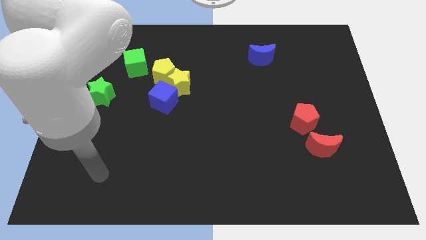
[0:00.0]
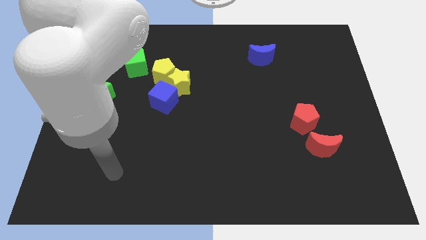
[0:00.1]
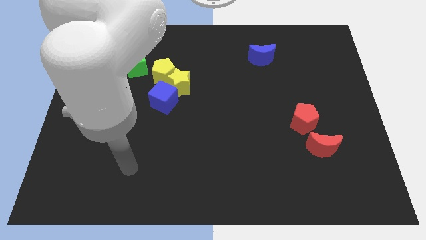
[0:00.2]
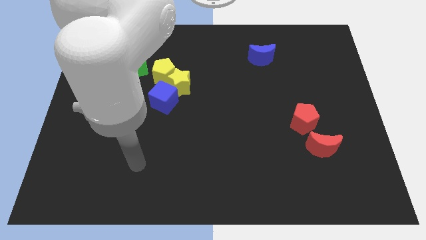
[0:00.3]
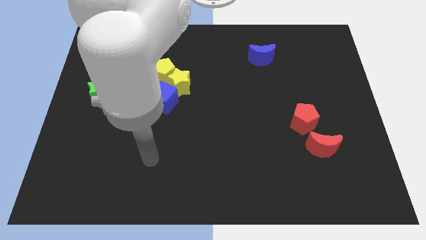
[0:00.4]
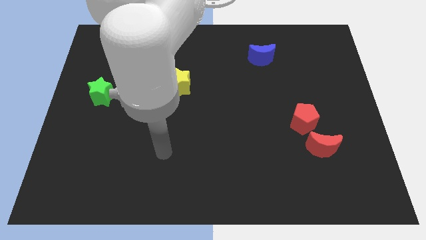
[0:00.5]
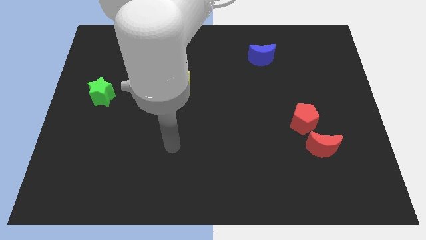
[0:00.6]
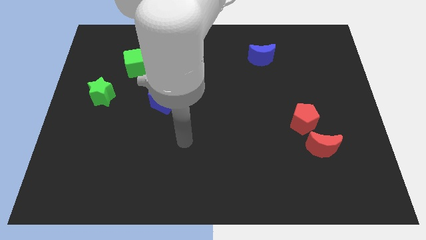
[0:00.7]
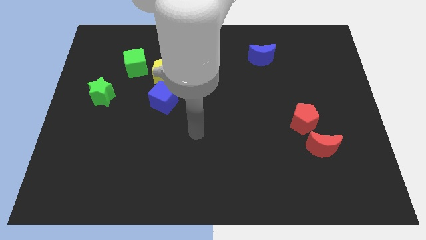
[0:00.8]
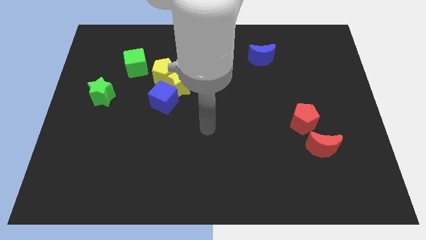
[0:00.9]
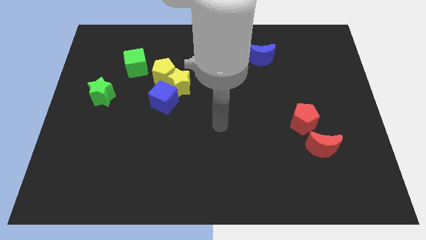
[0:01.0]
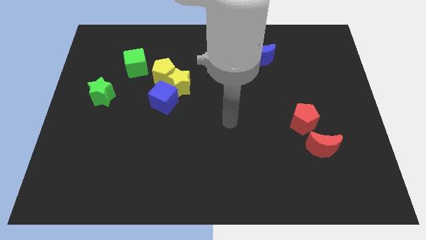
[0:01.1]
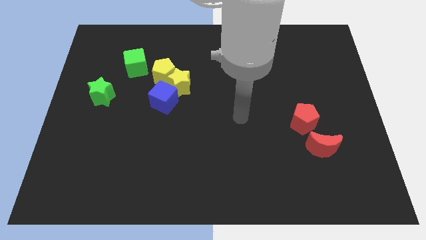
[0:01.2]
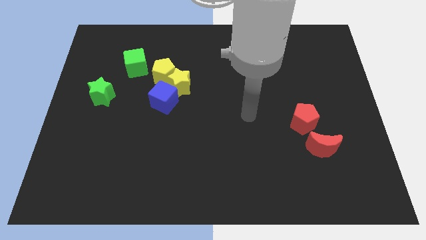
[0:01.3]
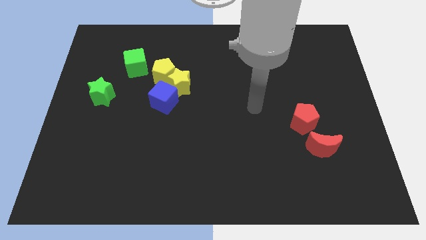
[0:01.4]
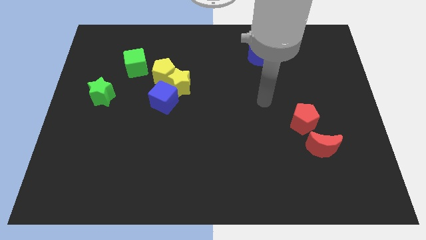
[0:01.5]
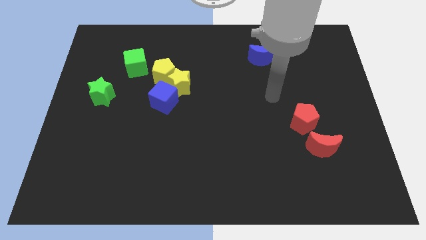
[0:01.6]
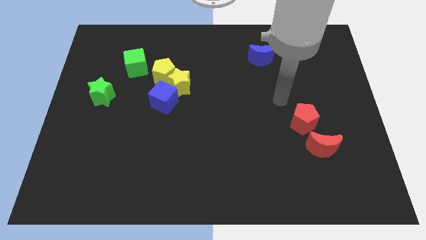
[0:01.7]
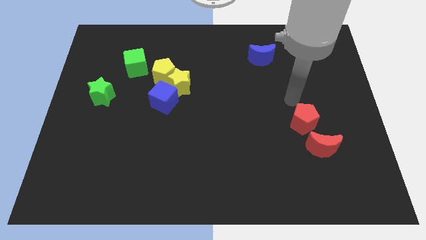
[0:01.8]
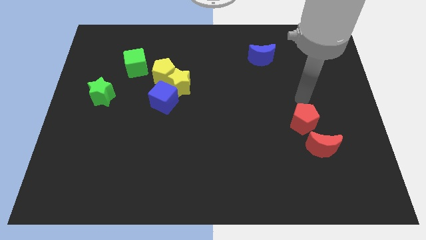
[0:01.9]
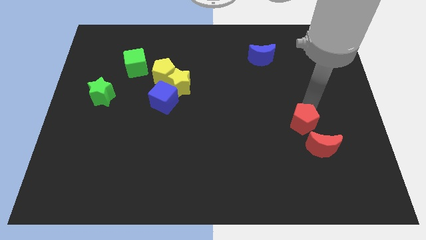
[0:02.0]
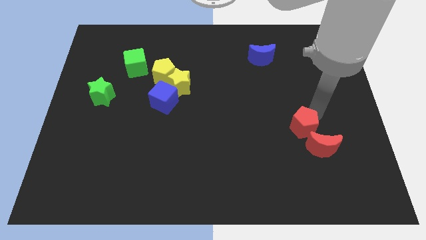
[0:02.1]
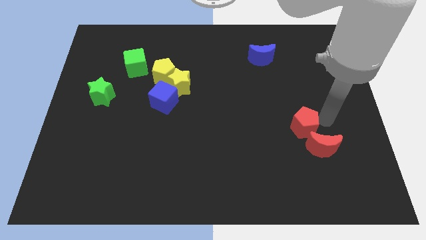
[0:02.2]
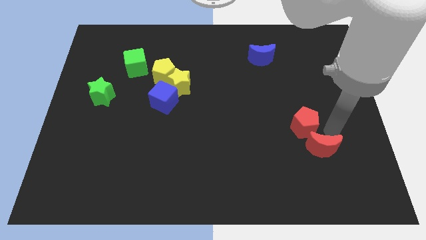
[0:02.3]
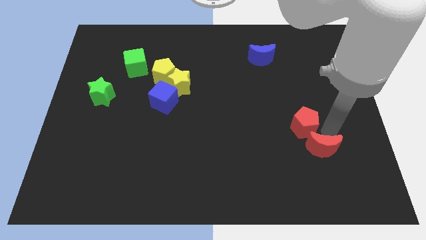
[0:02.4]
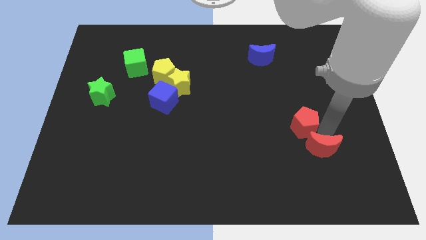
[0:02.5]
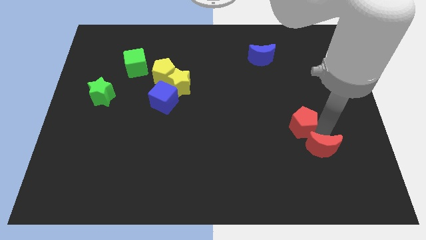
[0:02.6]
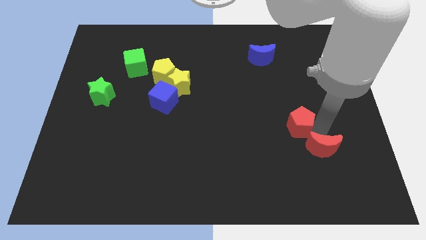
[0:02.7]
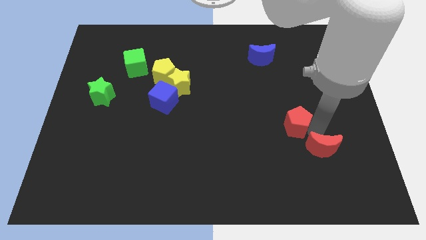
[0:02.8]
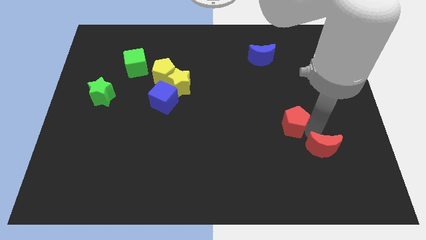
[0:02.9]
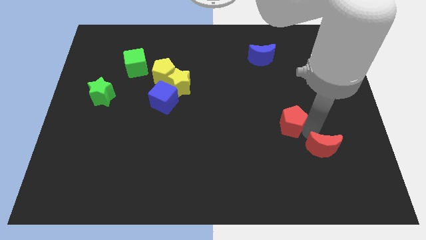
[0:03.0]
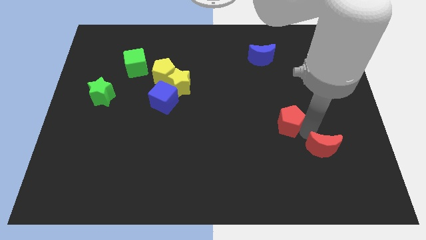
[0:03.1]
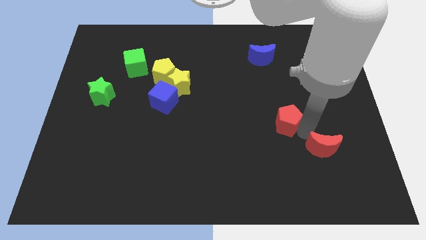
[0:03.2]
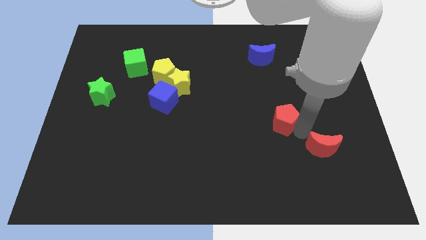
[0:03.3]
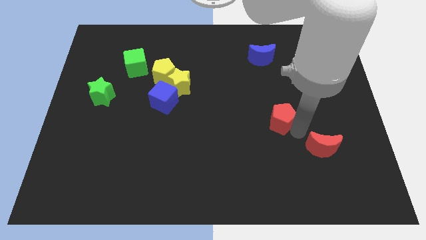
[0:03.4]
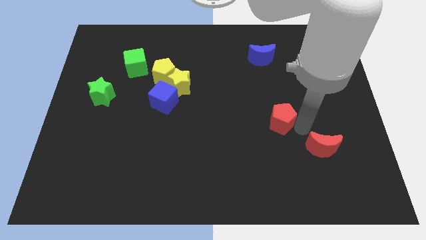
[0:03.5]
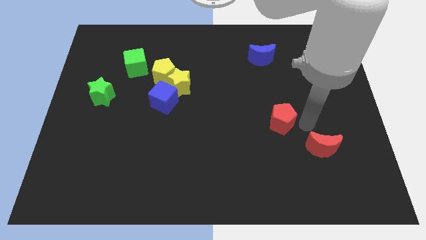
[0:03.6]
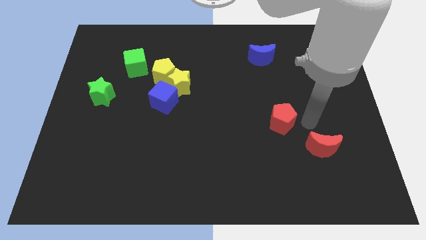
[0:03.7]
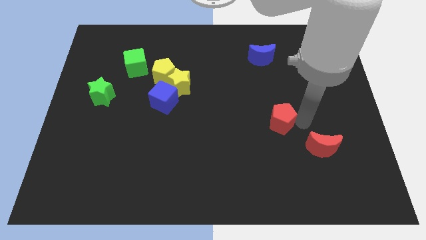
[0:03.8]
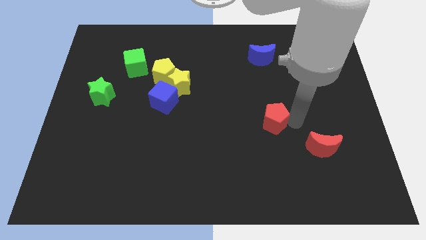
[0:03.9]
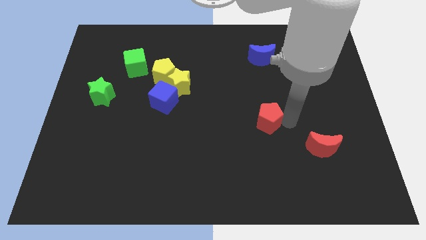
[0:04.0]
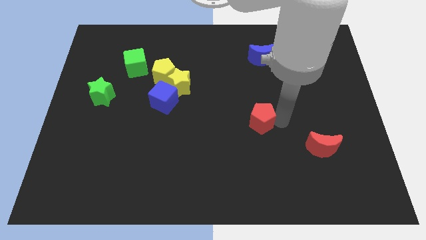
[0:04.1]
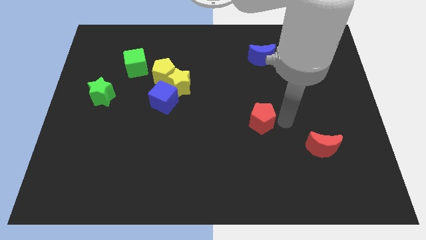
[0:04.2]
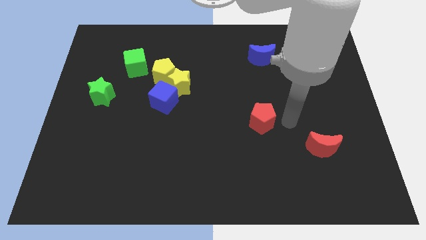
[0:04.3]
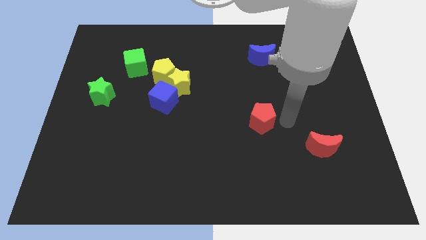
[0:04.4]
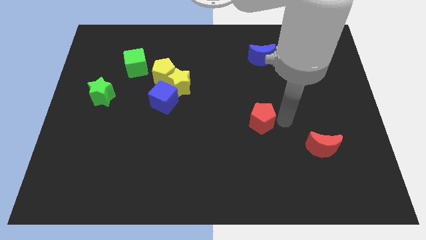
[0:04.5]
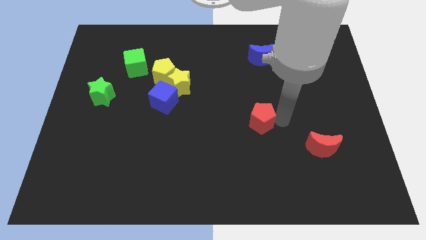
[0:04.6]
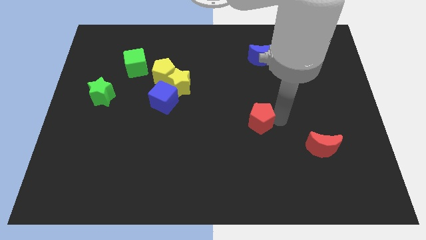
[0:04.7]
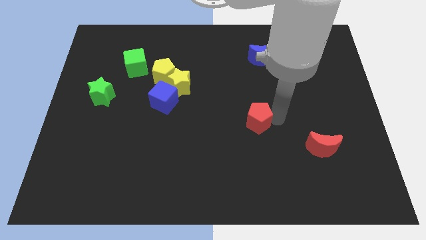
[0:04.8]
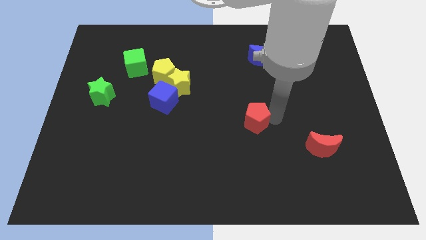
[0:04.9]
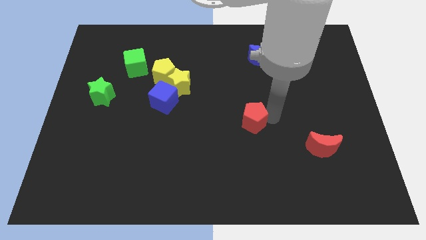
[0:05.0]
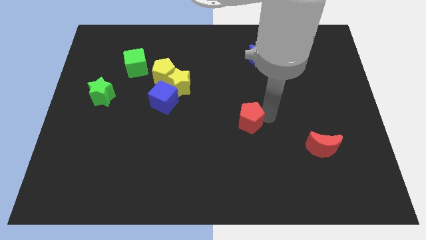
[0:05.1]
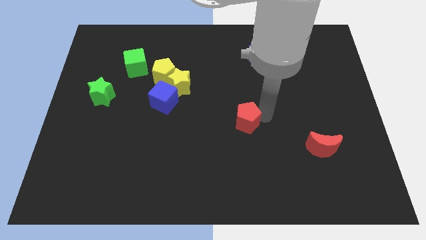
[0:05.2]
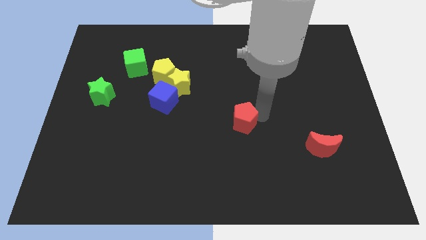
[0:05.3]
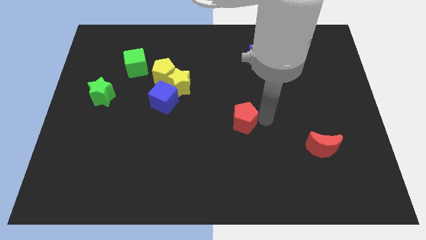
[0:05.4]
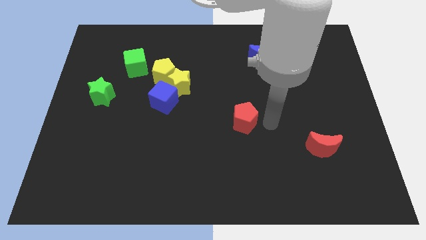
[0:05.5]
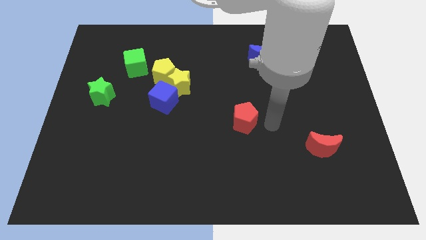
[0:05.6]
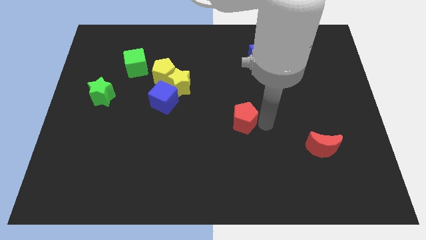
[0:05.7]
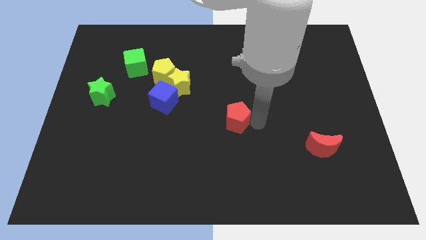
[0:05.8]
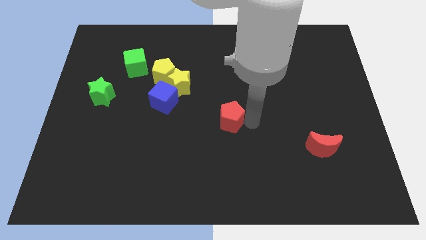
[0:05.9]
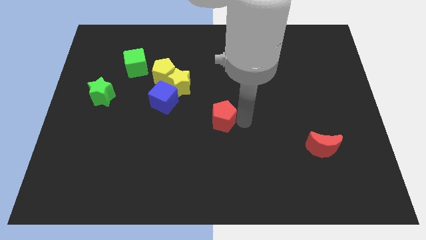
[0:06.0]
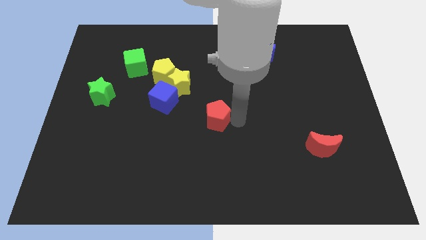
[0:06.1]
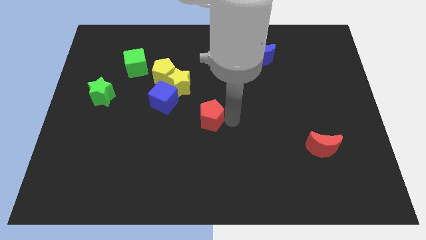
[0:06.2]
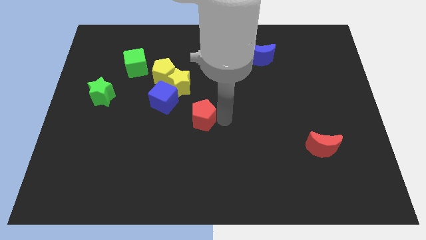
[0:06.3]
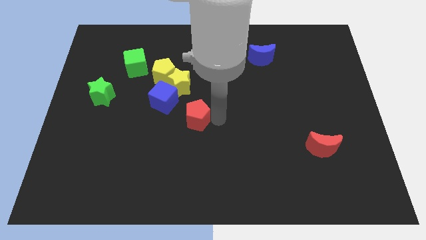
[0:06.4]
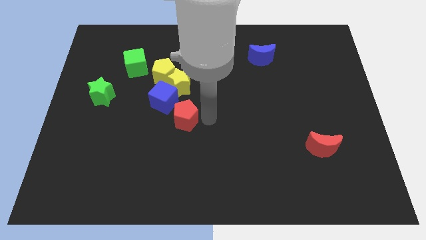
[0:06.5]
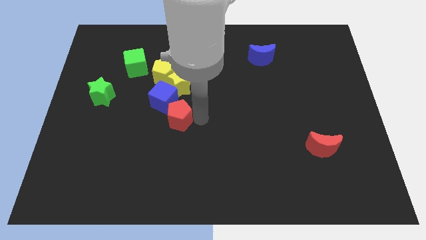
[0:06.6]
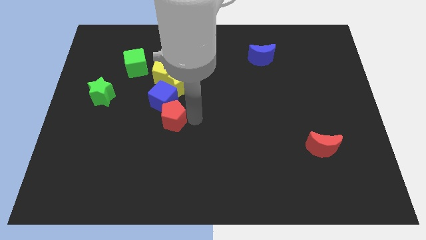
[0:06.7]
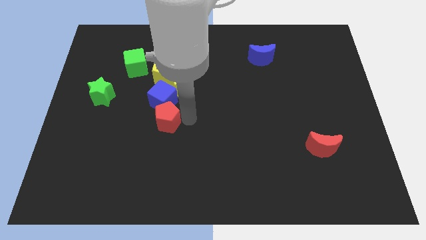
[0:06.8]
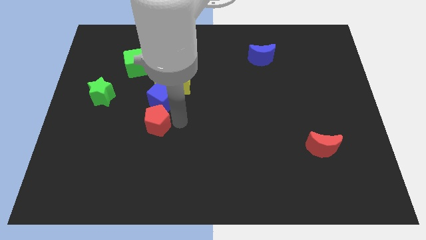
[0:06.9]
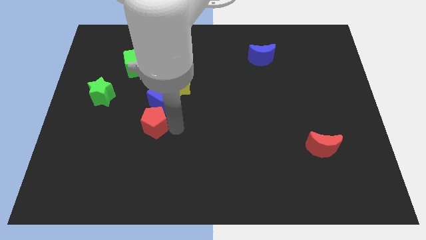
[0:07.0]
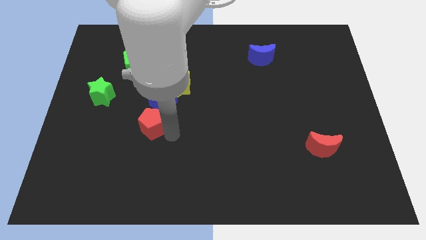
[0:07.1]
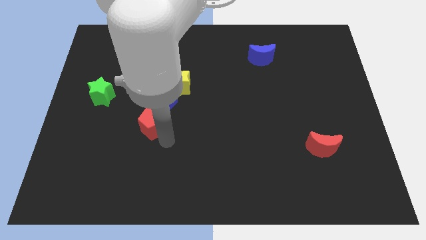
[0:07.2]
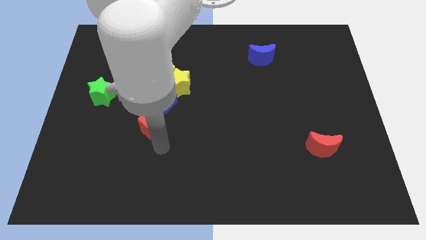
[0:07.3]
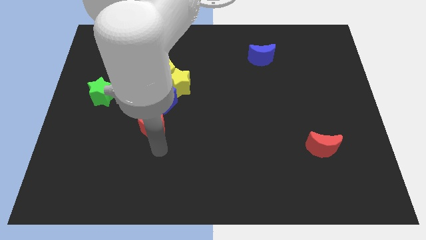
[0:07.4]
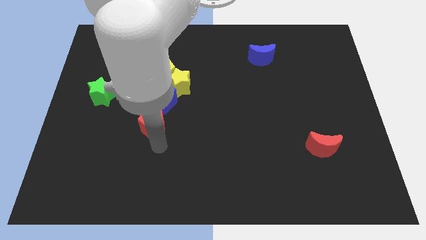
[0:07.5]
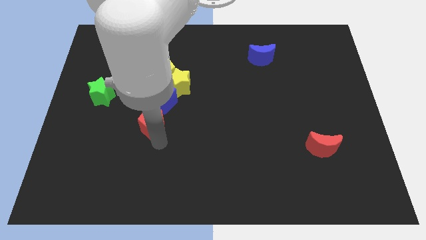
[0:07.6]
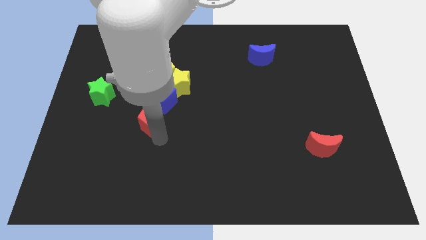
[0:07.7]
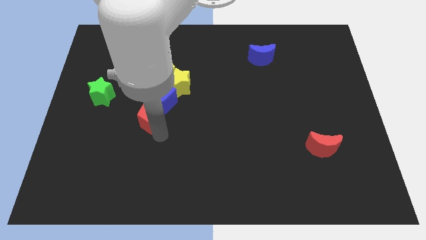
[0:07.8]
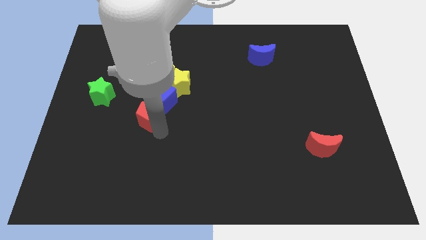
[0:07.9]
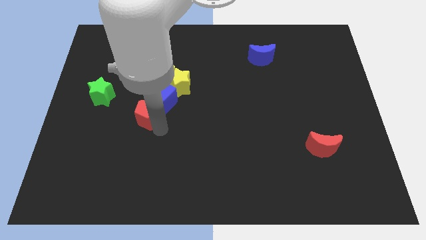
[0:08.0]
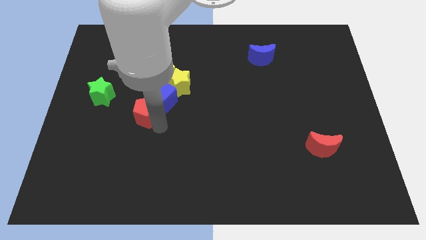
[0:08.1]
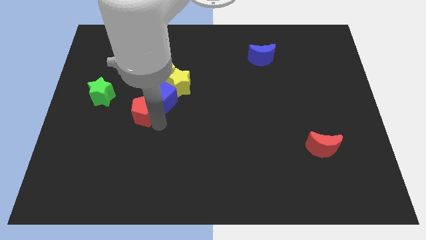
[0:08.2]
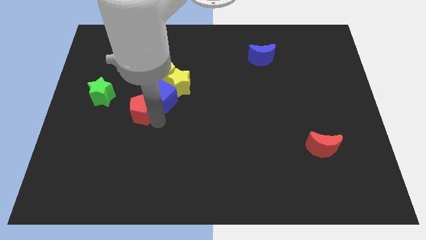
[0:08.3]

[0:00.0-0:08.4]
push the red pentagon just right of the green star
